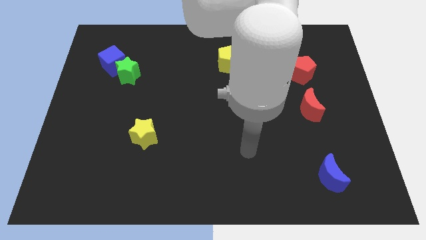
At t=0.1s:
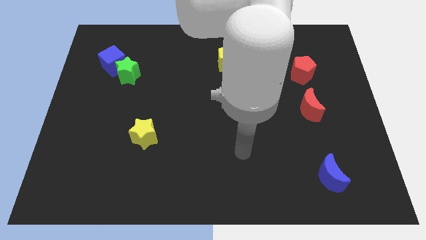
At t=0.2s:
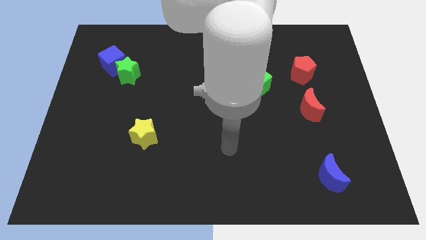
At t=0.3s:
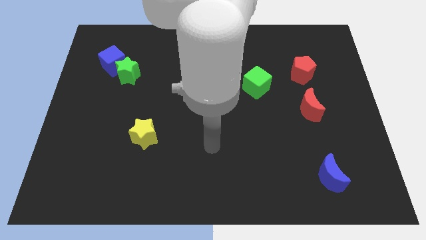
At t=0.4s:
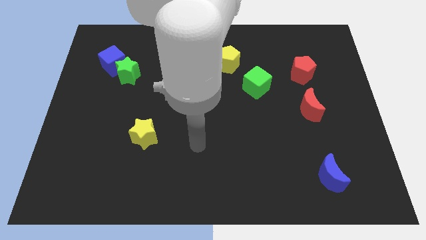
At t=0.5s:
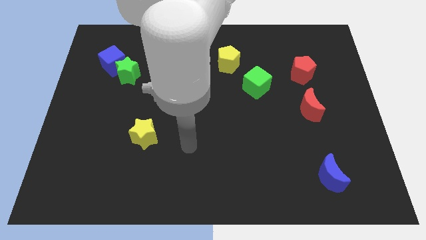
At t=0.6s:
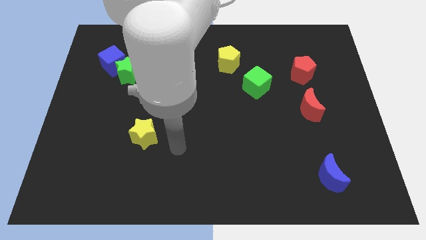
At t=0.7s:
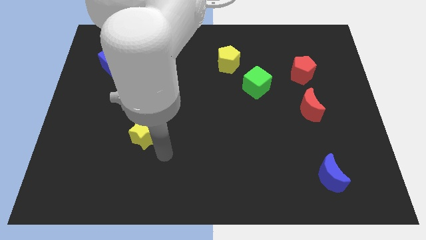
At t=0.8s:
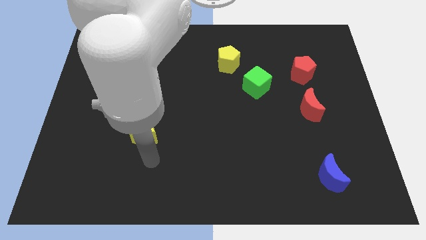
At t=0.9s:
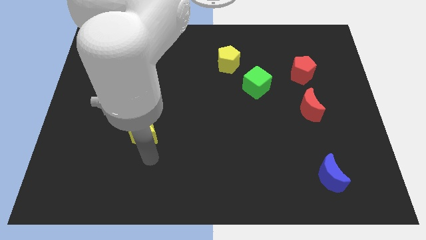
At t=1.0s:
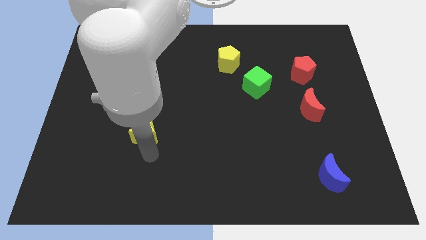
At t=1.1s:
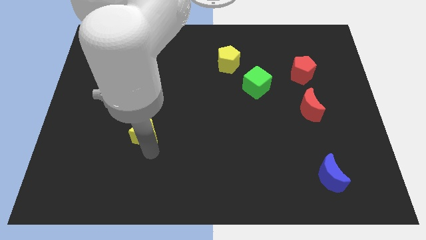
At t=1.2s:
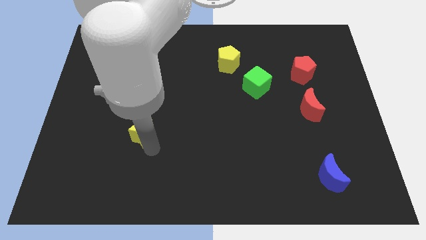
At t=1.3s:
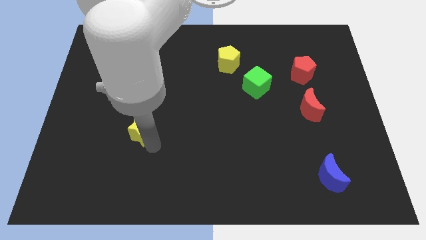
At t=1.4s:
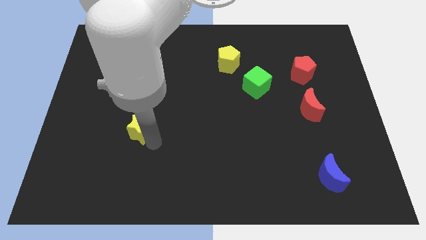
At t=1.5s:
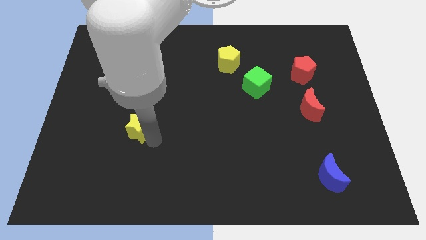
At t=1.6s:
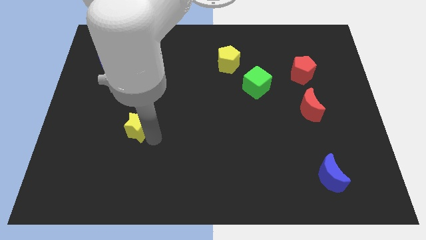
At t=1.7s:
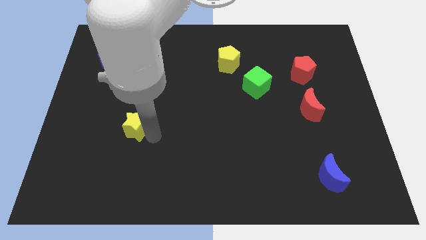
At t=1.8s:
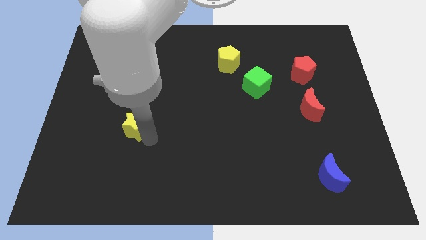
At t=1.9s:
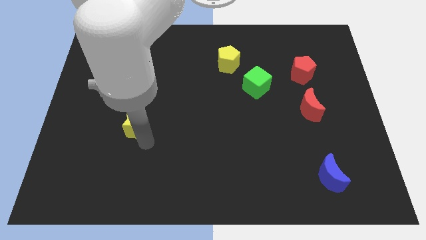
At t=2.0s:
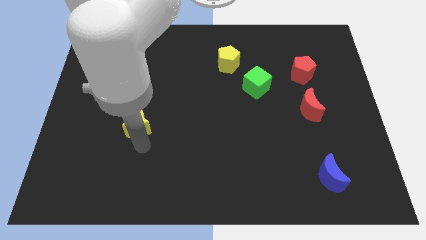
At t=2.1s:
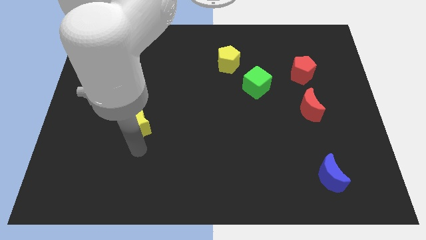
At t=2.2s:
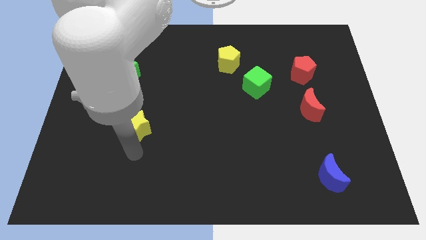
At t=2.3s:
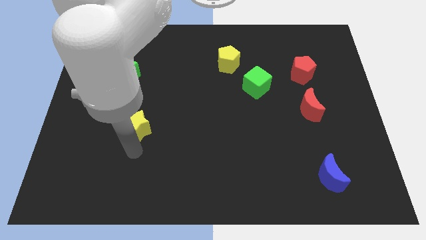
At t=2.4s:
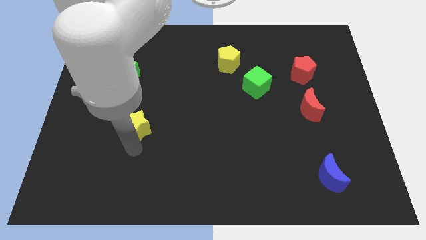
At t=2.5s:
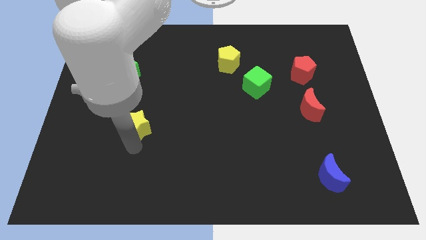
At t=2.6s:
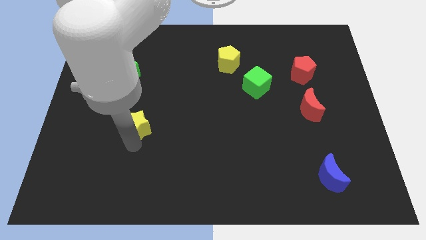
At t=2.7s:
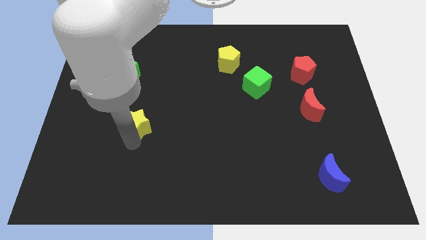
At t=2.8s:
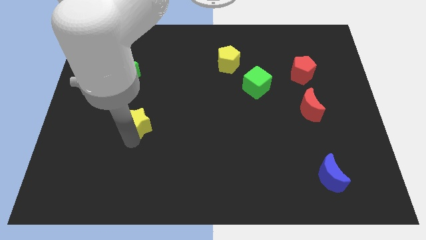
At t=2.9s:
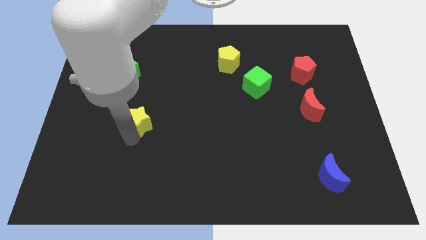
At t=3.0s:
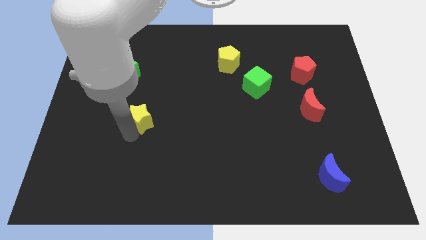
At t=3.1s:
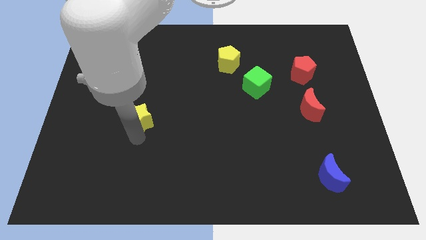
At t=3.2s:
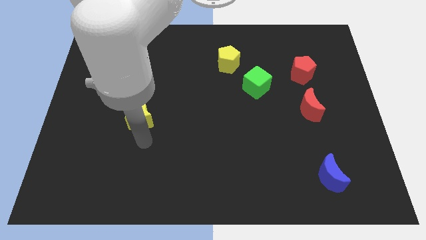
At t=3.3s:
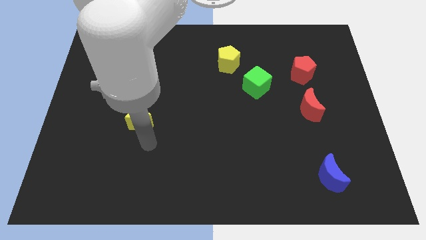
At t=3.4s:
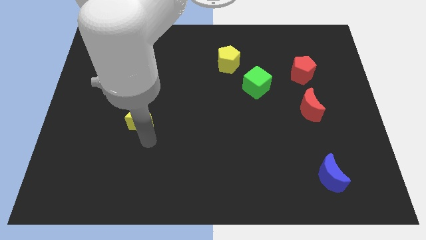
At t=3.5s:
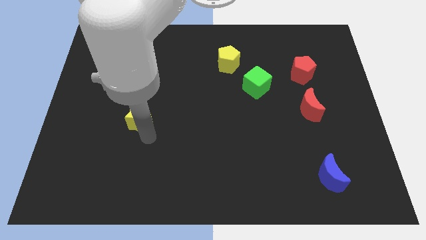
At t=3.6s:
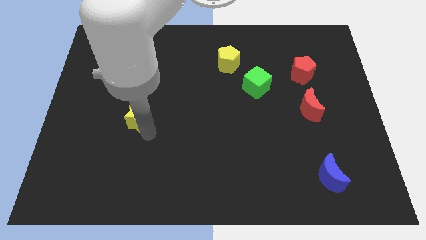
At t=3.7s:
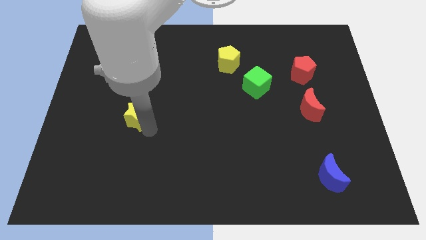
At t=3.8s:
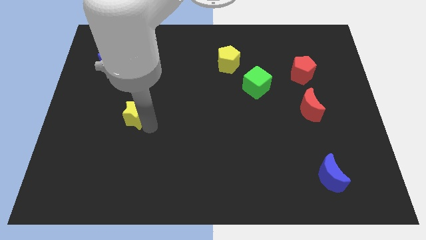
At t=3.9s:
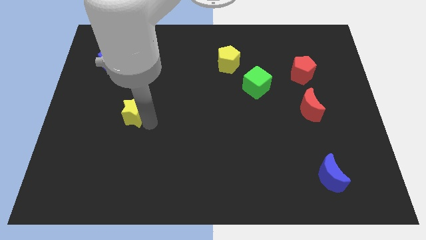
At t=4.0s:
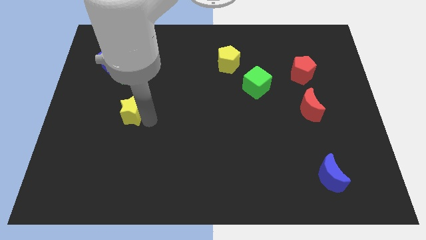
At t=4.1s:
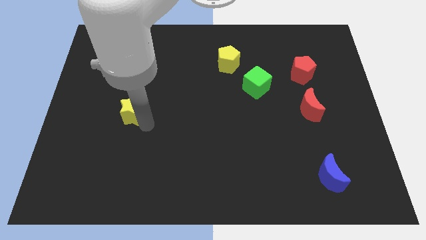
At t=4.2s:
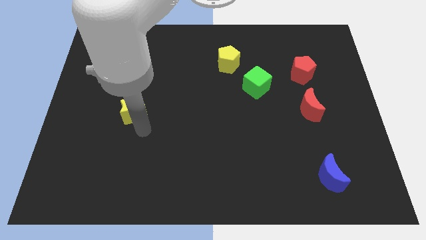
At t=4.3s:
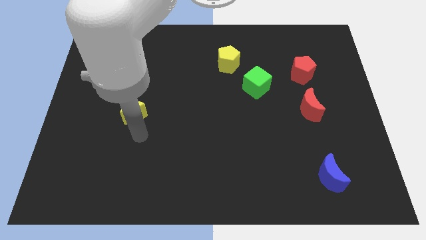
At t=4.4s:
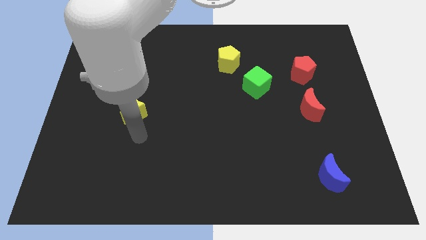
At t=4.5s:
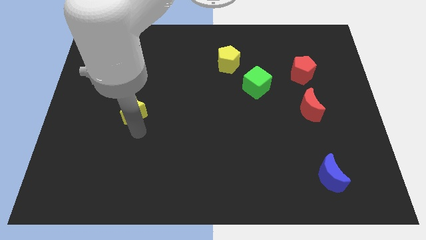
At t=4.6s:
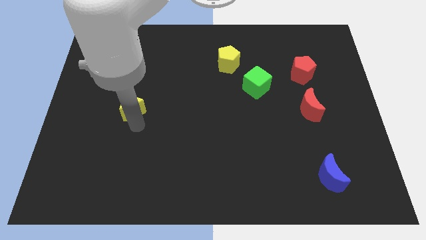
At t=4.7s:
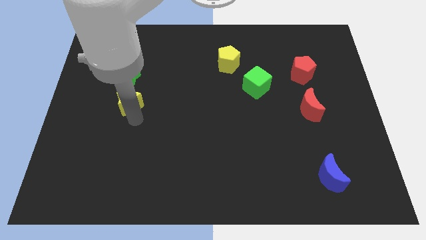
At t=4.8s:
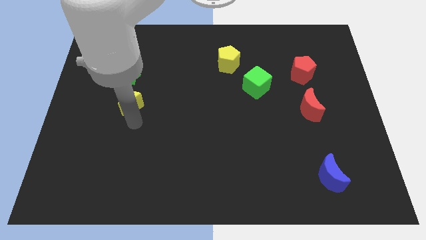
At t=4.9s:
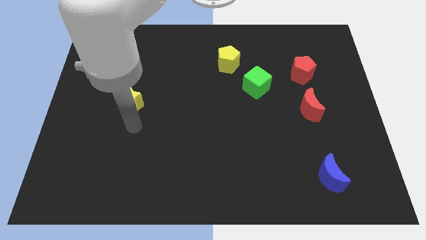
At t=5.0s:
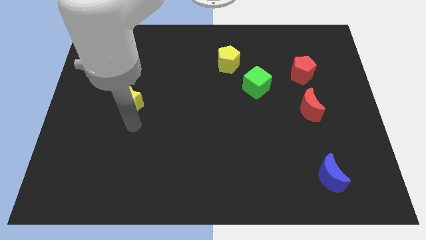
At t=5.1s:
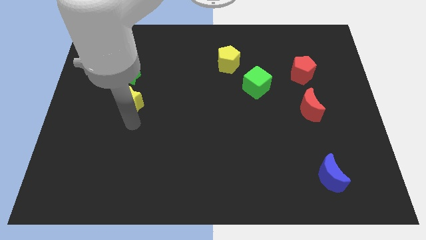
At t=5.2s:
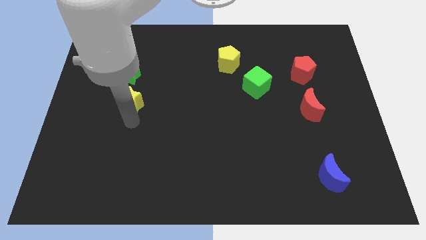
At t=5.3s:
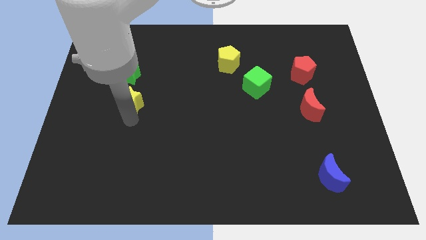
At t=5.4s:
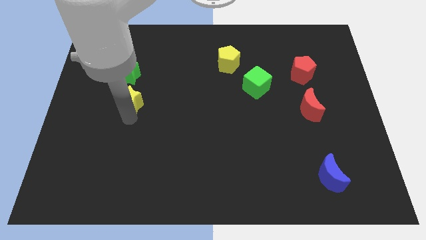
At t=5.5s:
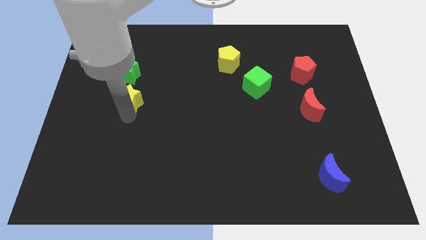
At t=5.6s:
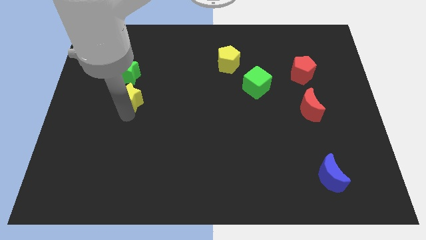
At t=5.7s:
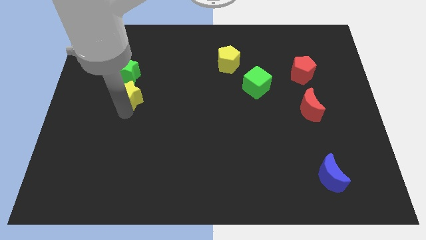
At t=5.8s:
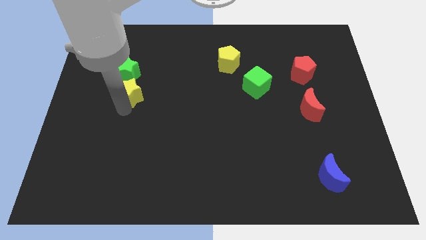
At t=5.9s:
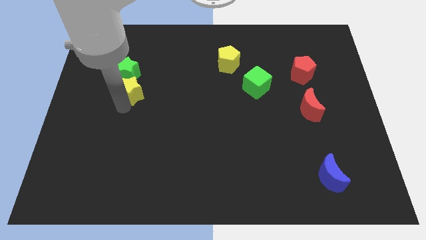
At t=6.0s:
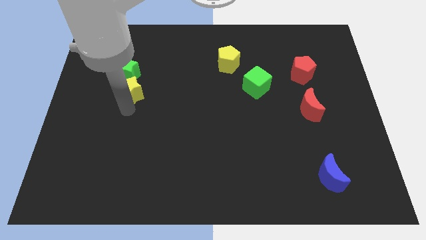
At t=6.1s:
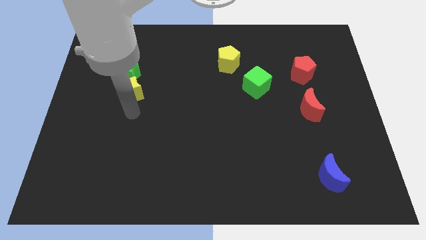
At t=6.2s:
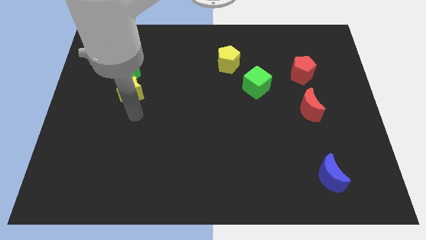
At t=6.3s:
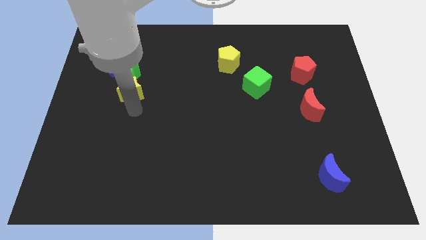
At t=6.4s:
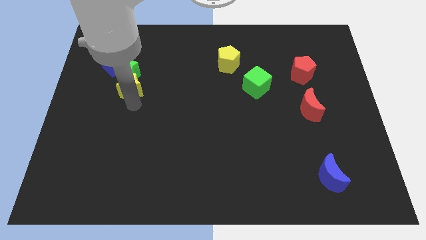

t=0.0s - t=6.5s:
slide the yellow star towards the green star

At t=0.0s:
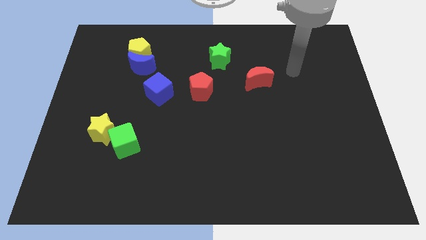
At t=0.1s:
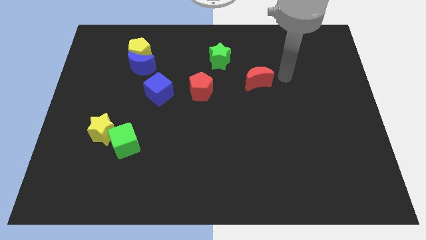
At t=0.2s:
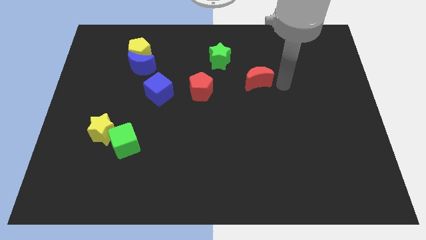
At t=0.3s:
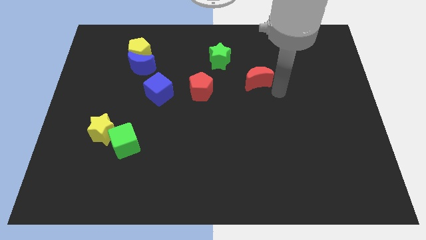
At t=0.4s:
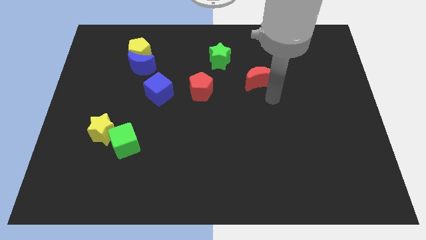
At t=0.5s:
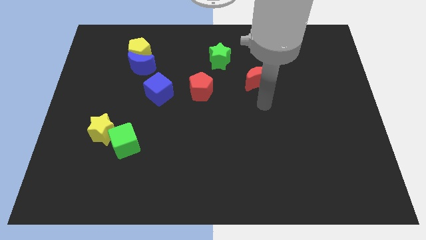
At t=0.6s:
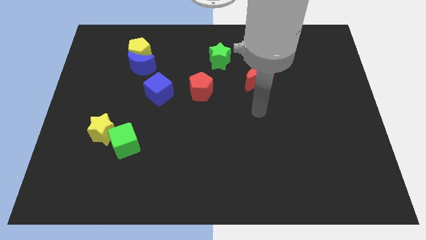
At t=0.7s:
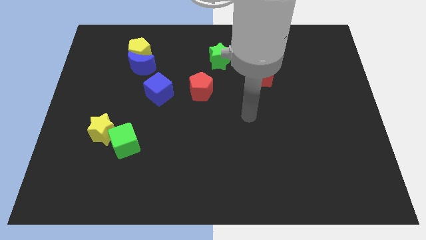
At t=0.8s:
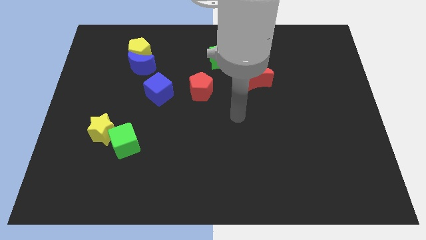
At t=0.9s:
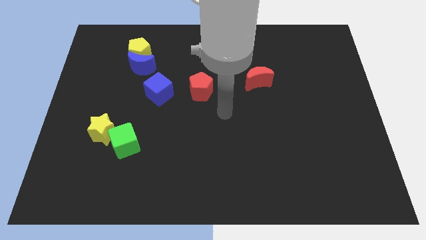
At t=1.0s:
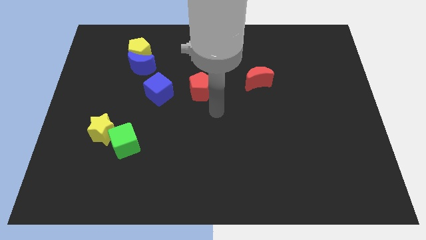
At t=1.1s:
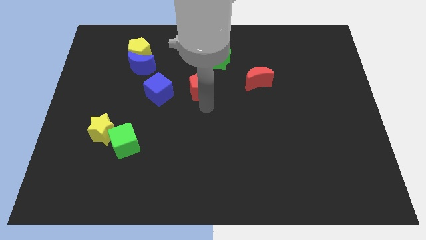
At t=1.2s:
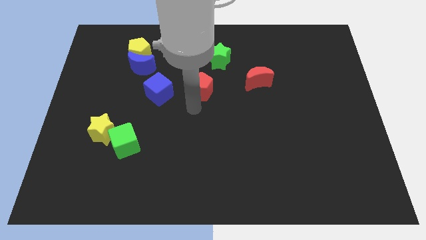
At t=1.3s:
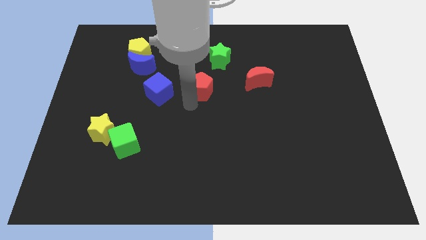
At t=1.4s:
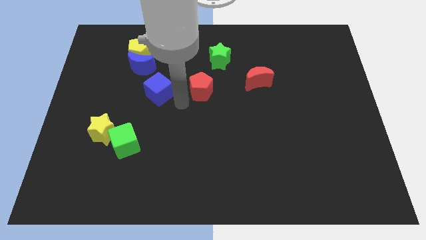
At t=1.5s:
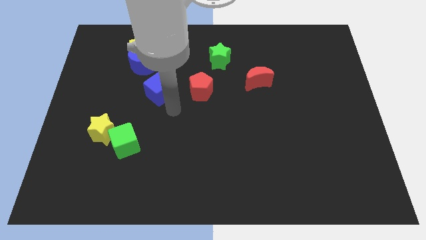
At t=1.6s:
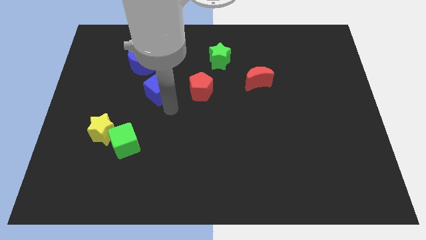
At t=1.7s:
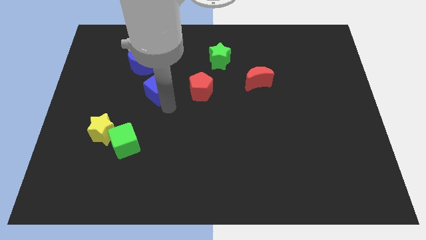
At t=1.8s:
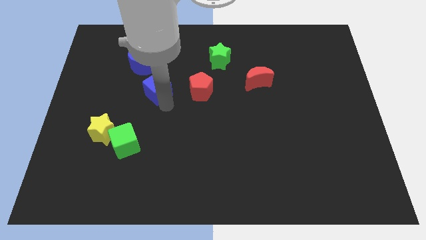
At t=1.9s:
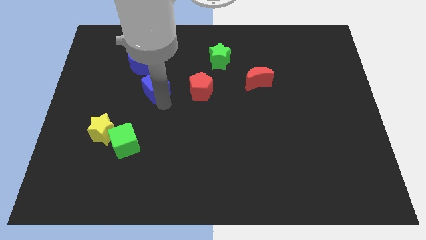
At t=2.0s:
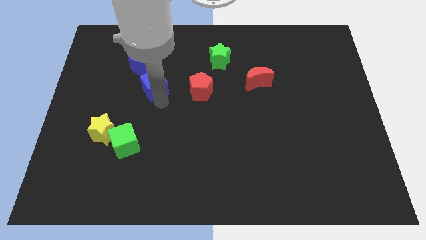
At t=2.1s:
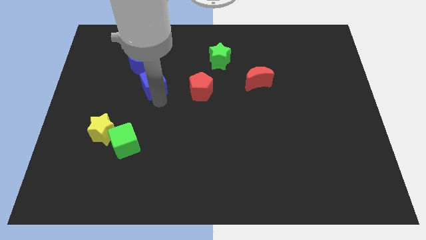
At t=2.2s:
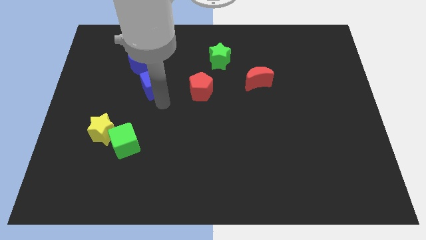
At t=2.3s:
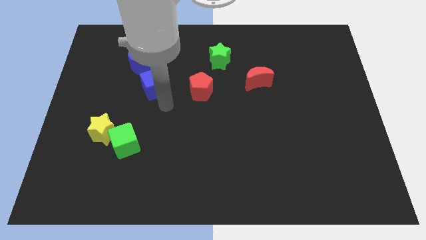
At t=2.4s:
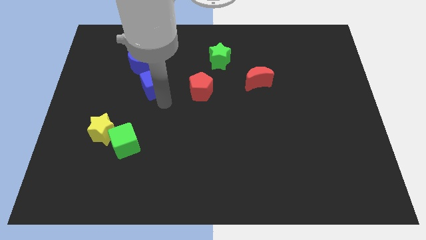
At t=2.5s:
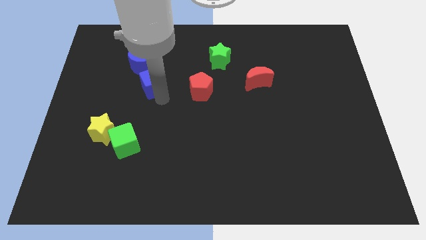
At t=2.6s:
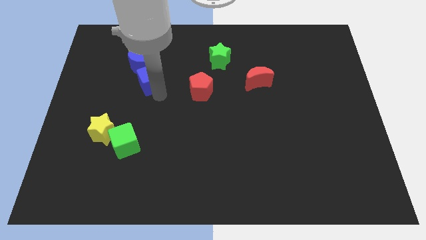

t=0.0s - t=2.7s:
put the blue cube next to the blue moon
